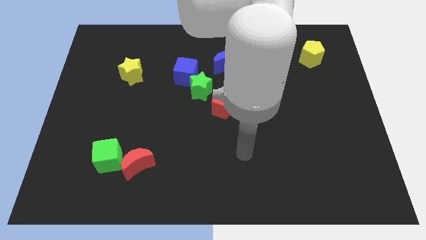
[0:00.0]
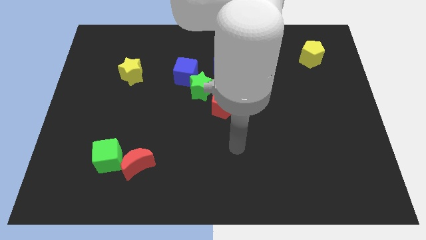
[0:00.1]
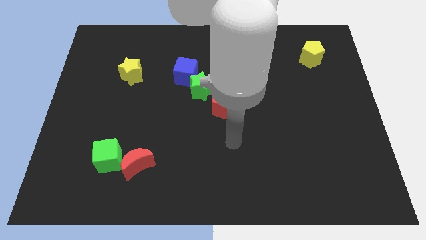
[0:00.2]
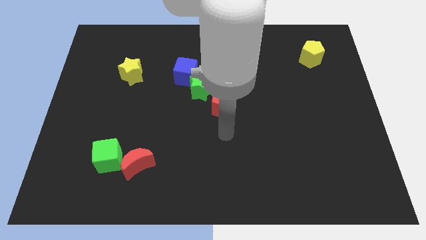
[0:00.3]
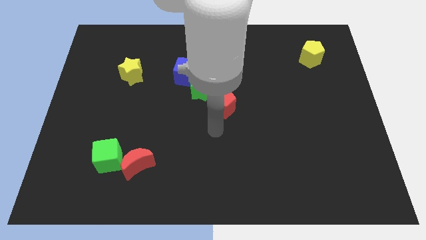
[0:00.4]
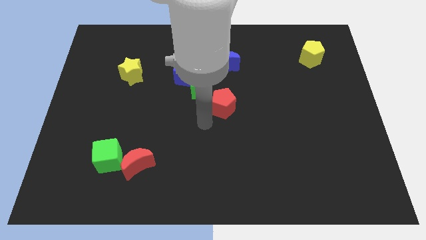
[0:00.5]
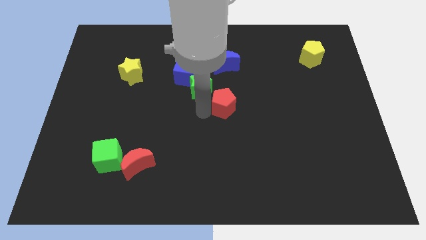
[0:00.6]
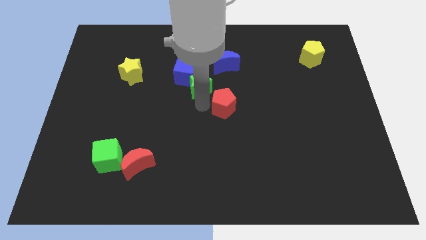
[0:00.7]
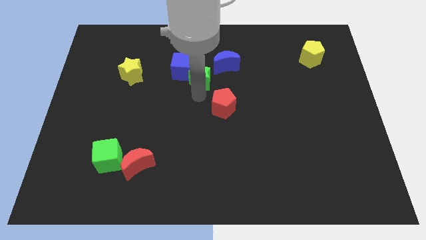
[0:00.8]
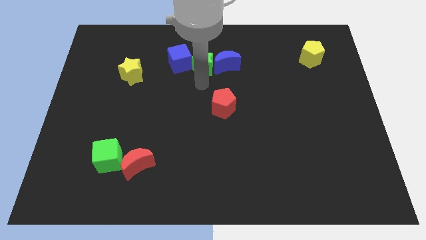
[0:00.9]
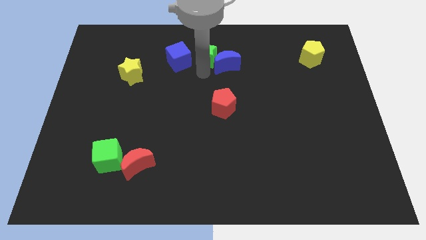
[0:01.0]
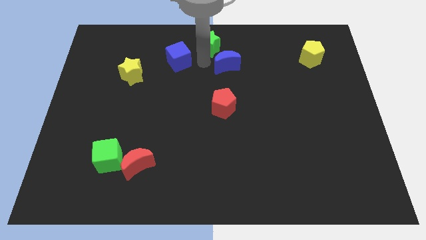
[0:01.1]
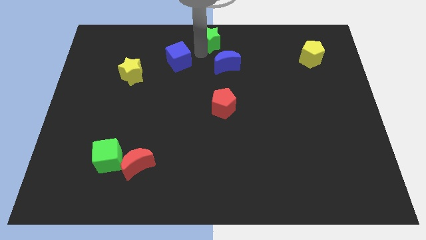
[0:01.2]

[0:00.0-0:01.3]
move the blue cube away from the green star

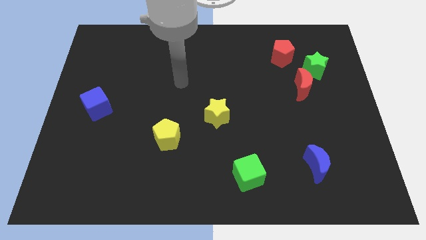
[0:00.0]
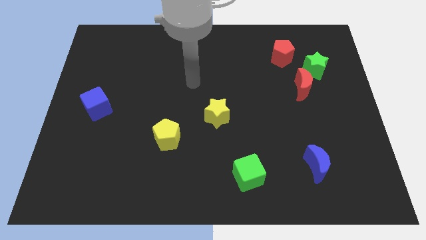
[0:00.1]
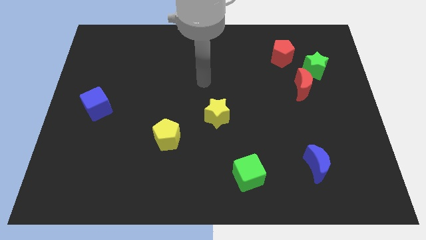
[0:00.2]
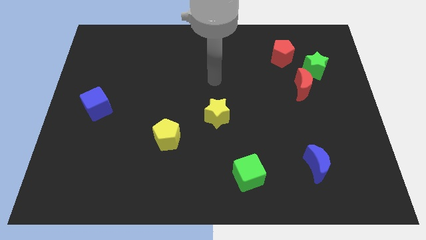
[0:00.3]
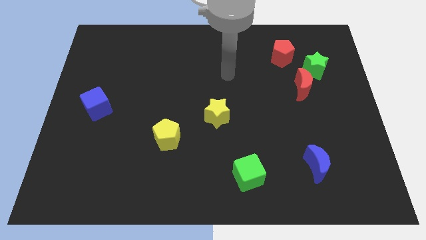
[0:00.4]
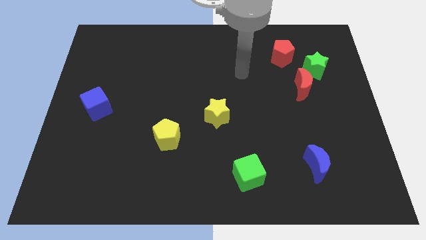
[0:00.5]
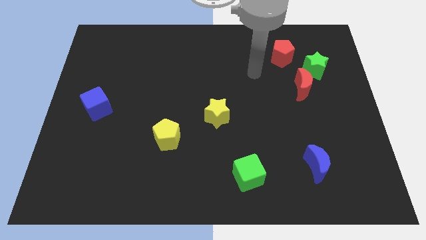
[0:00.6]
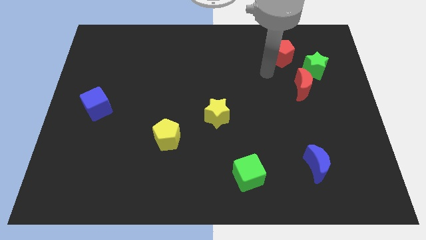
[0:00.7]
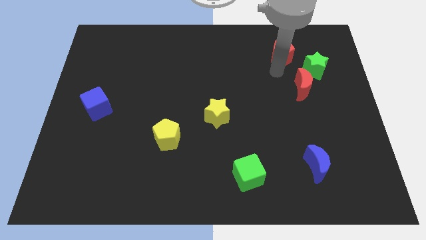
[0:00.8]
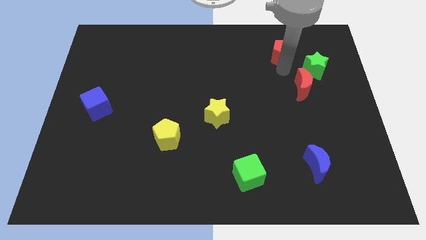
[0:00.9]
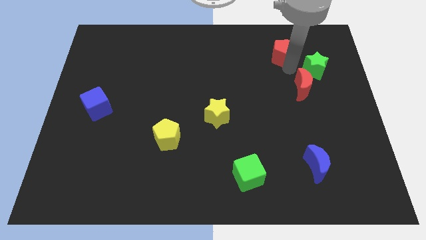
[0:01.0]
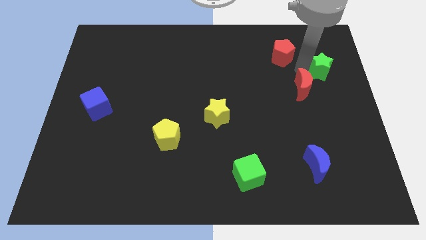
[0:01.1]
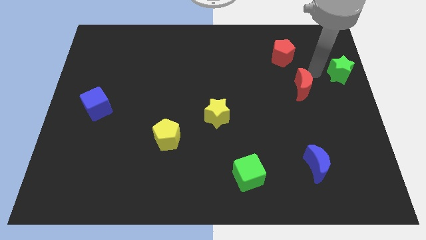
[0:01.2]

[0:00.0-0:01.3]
pull the red moon apart from the green star

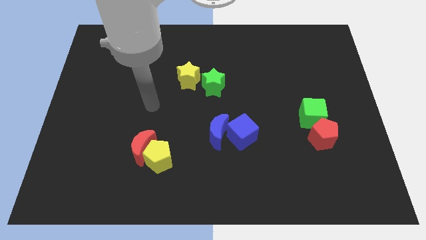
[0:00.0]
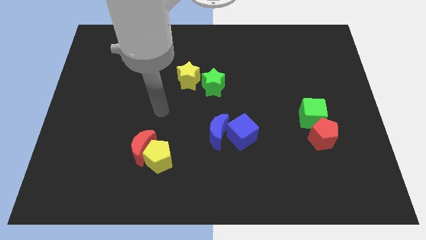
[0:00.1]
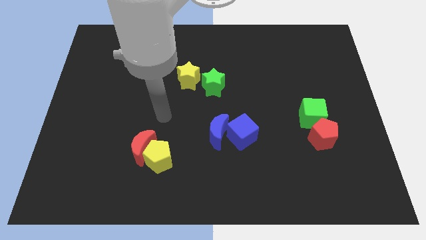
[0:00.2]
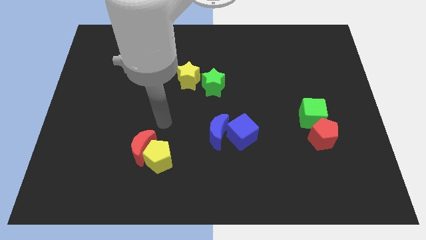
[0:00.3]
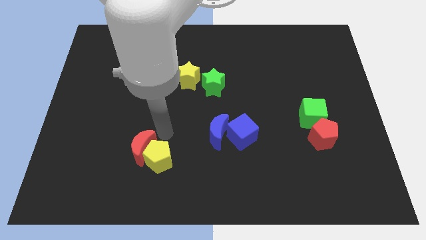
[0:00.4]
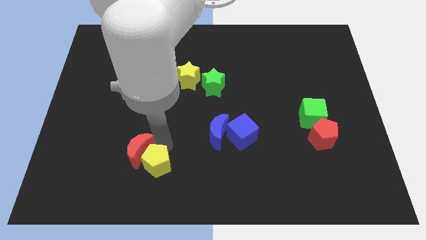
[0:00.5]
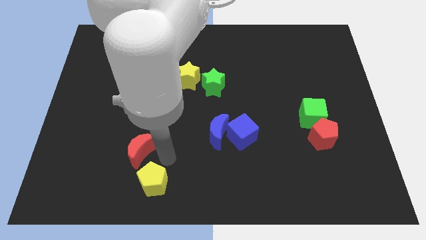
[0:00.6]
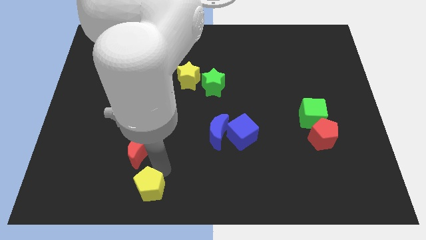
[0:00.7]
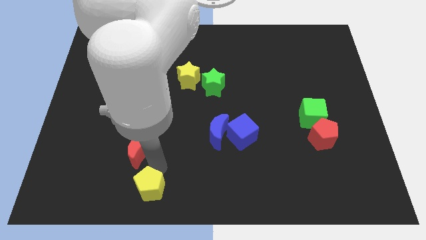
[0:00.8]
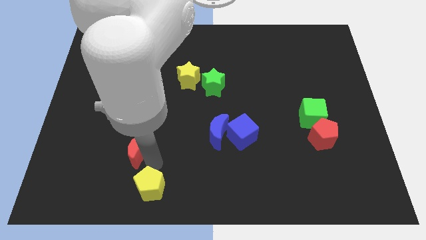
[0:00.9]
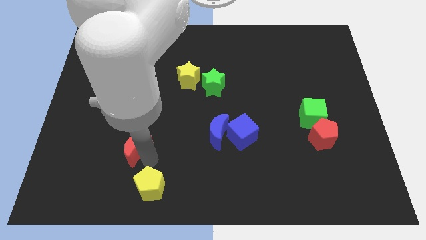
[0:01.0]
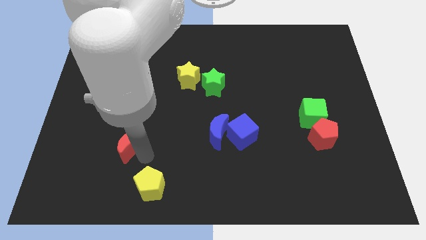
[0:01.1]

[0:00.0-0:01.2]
separate the red moon from the yellow pentagon

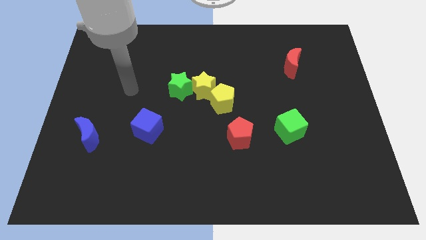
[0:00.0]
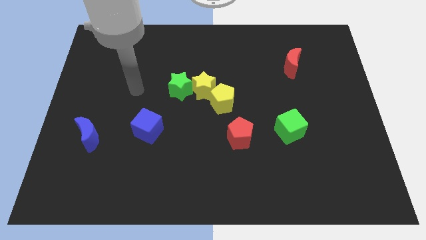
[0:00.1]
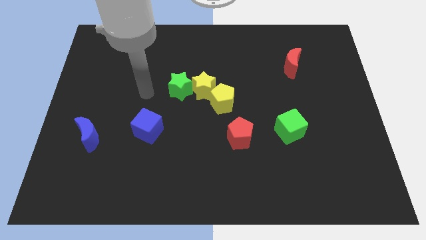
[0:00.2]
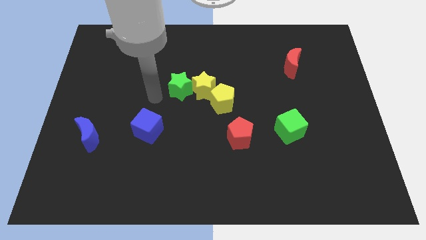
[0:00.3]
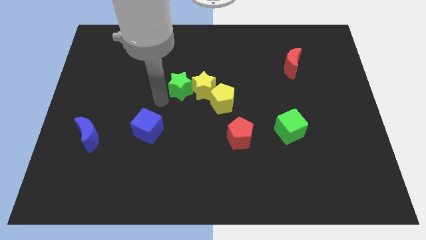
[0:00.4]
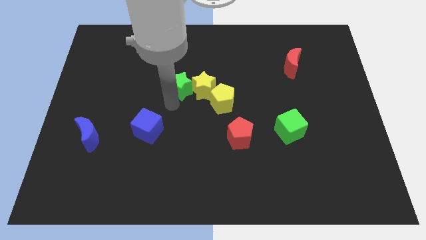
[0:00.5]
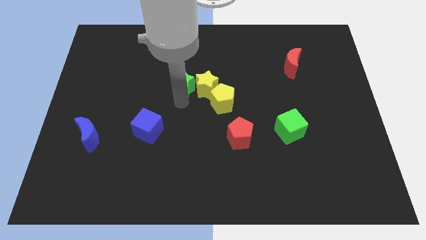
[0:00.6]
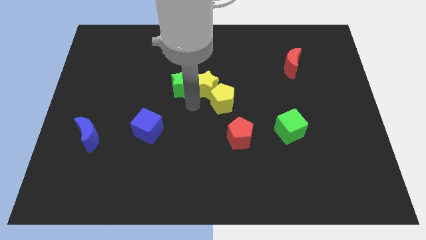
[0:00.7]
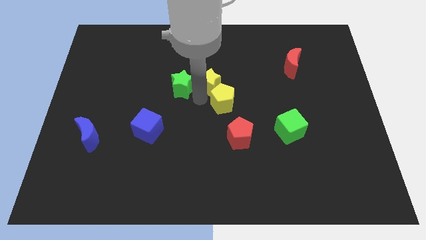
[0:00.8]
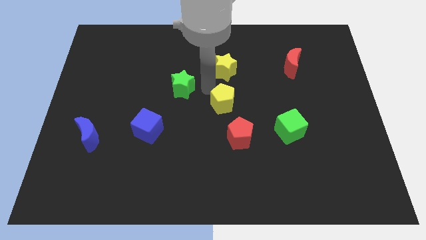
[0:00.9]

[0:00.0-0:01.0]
separate the green star from the yellow star

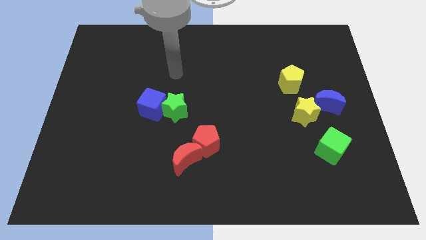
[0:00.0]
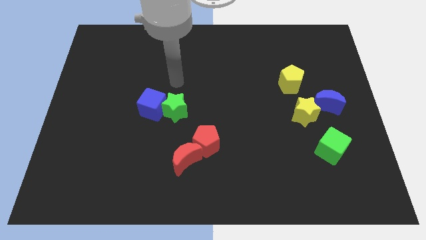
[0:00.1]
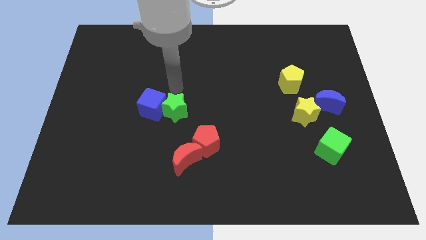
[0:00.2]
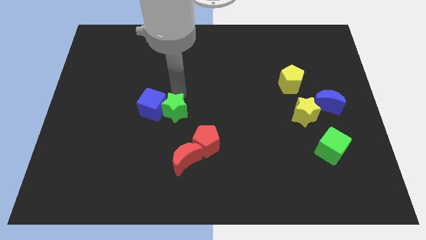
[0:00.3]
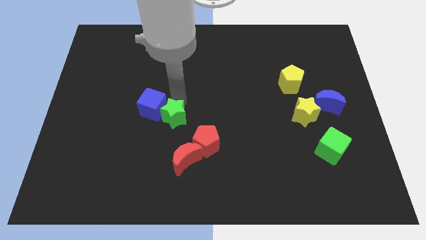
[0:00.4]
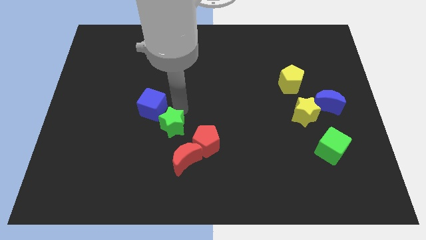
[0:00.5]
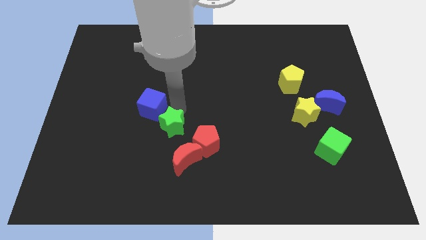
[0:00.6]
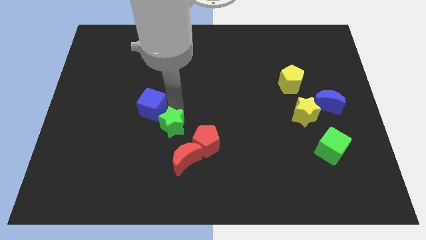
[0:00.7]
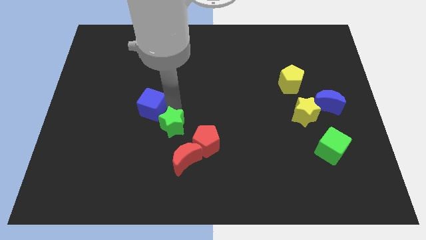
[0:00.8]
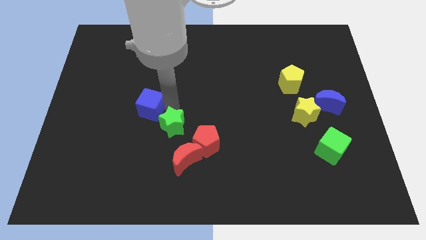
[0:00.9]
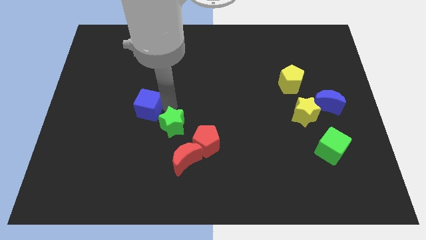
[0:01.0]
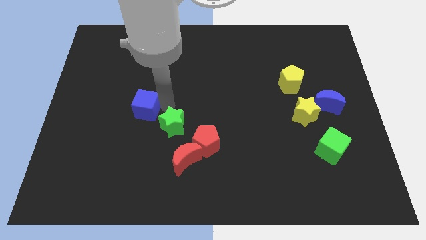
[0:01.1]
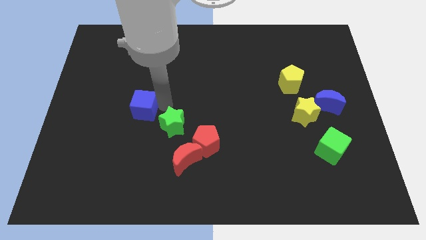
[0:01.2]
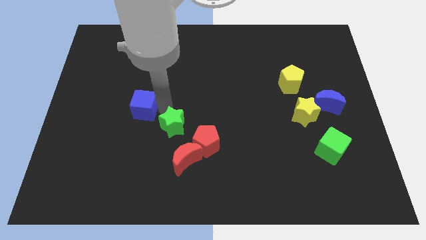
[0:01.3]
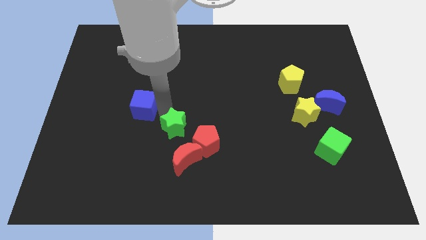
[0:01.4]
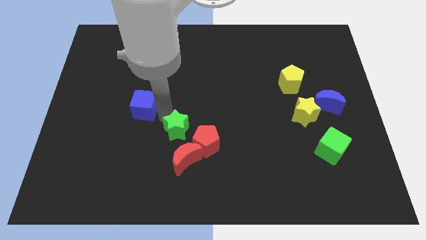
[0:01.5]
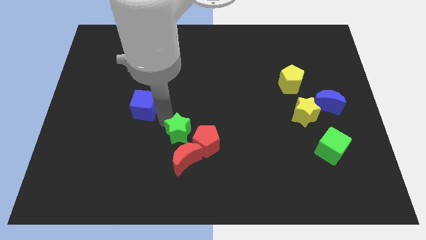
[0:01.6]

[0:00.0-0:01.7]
pull the blue cube apart from the green star

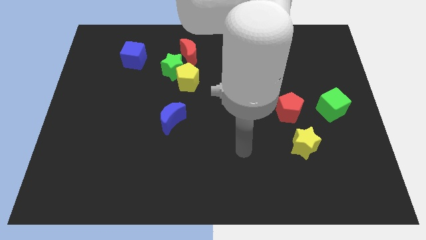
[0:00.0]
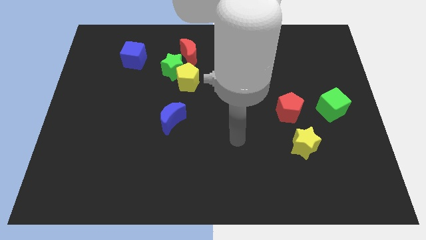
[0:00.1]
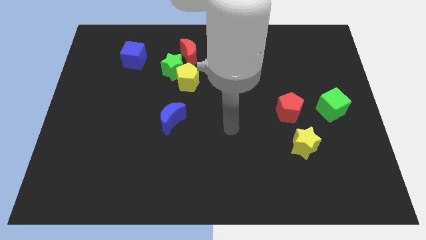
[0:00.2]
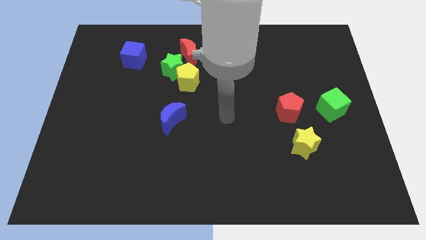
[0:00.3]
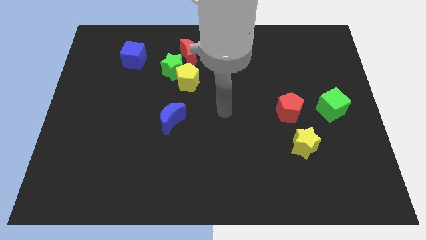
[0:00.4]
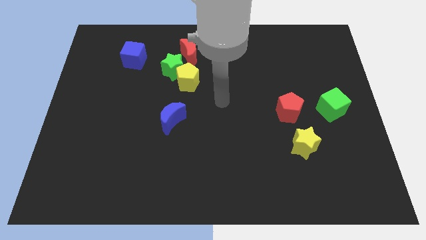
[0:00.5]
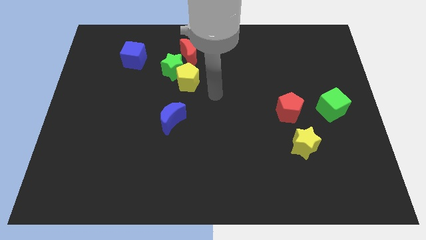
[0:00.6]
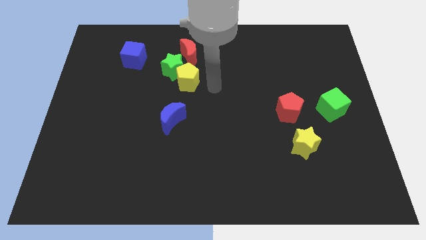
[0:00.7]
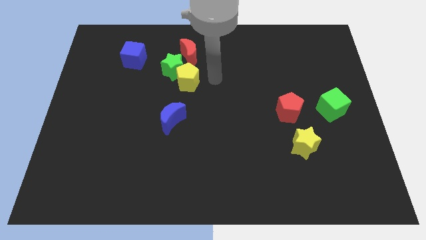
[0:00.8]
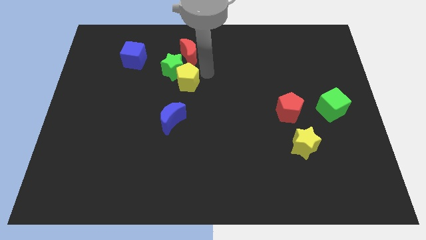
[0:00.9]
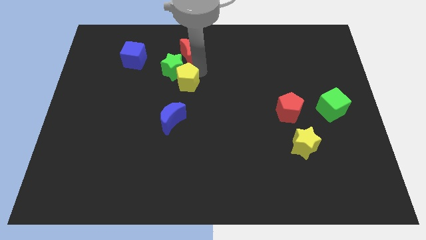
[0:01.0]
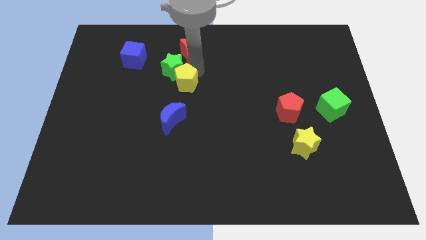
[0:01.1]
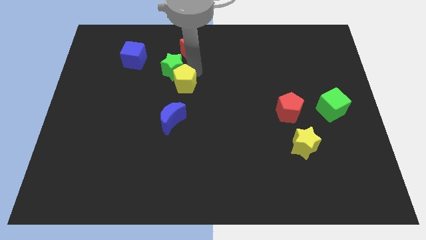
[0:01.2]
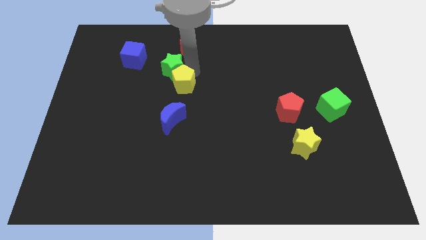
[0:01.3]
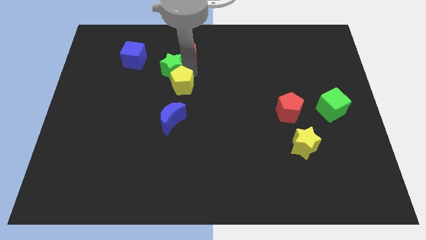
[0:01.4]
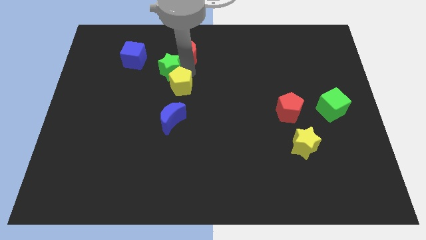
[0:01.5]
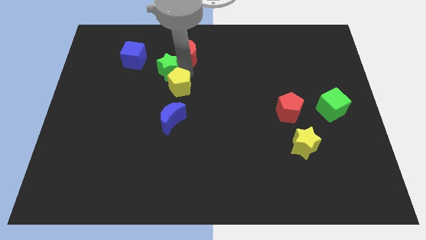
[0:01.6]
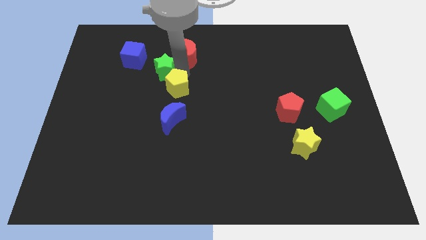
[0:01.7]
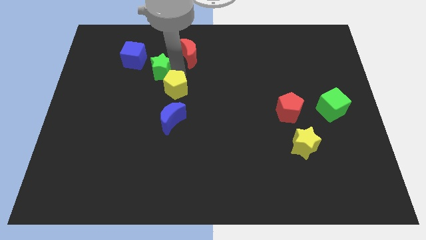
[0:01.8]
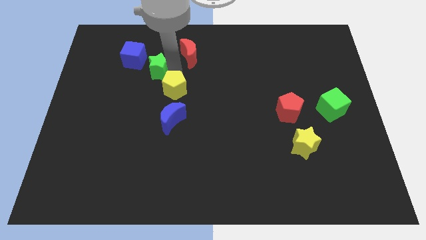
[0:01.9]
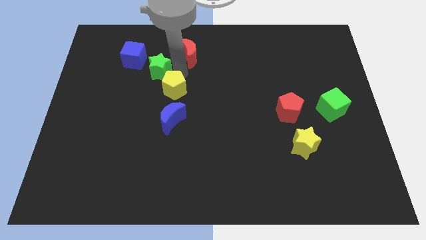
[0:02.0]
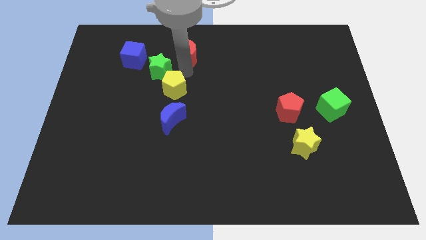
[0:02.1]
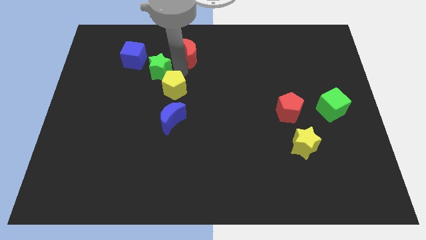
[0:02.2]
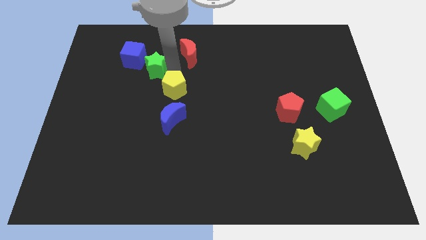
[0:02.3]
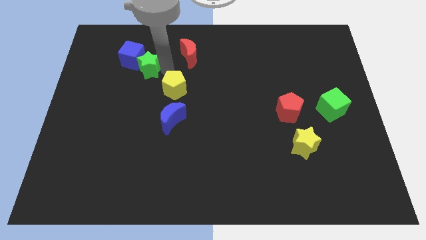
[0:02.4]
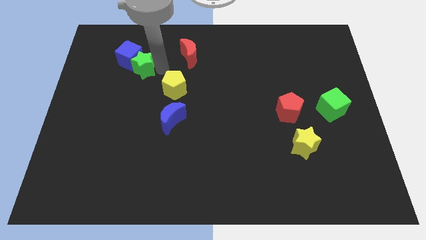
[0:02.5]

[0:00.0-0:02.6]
separate the green star from the yellow pentagon and red moon

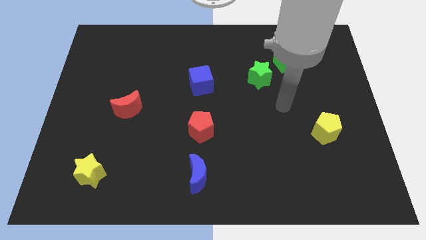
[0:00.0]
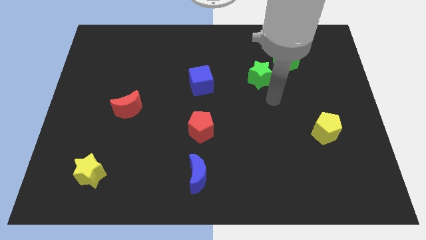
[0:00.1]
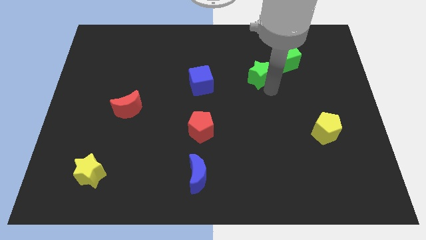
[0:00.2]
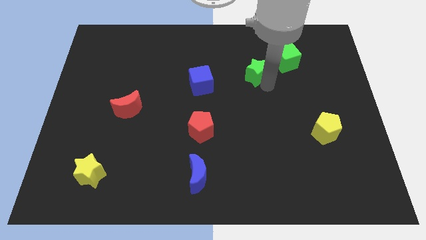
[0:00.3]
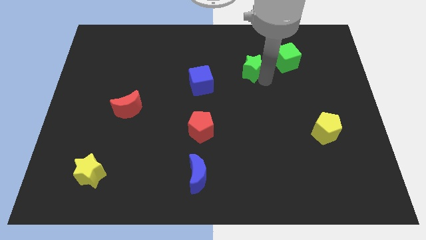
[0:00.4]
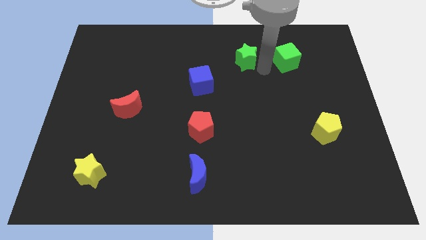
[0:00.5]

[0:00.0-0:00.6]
separate the green cube from the green star
